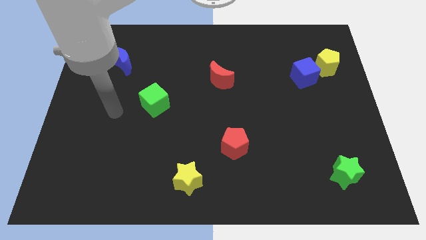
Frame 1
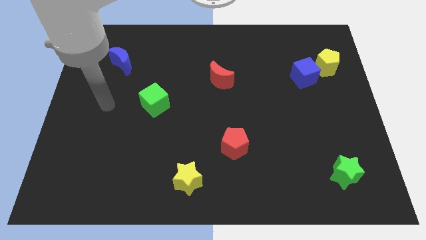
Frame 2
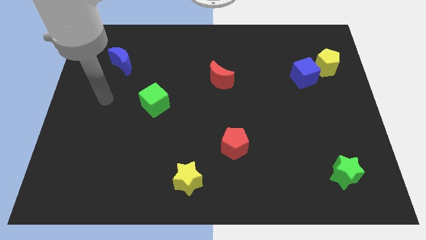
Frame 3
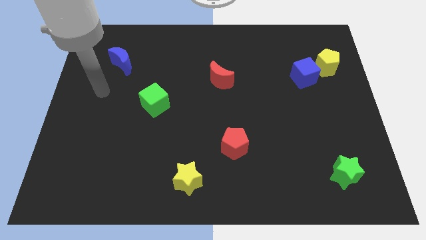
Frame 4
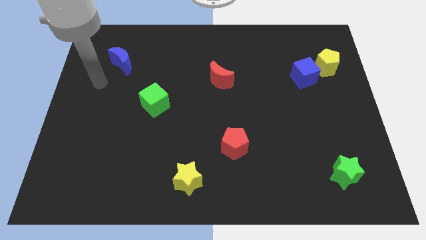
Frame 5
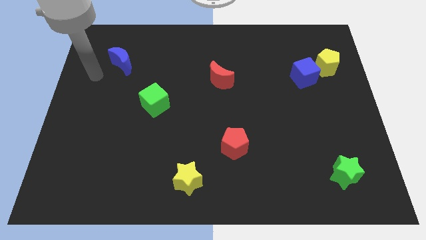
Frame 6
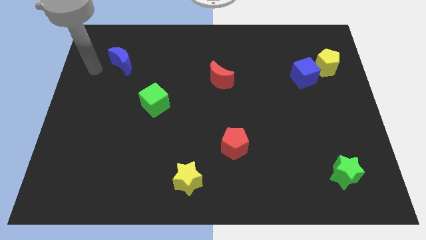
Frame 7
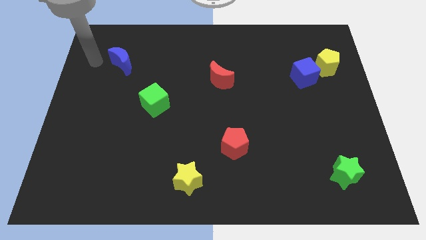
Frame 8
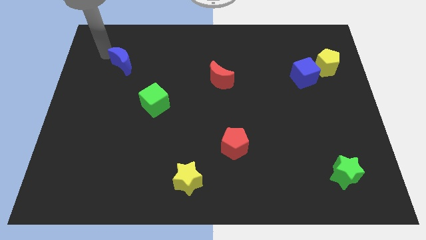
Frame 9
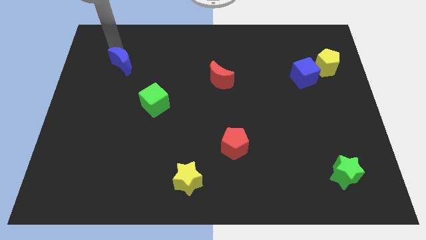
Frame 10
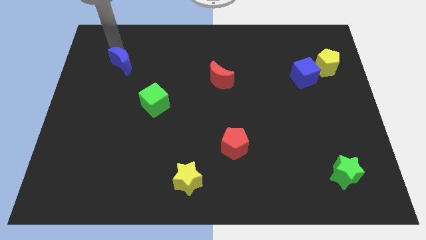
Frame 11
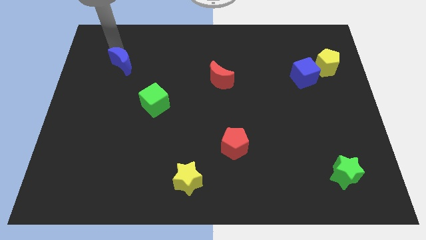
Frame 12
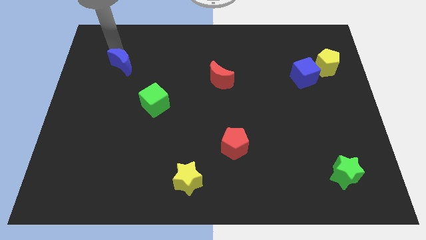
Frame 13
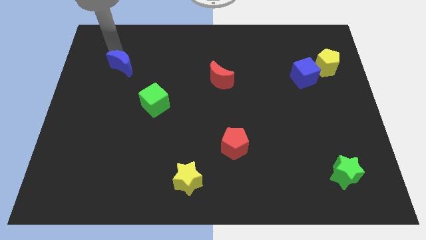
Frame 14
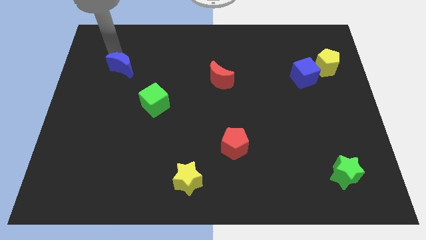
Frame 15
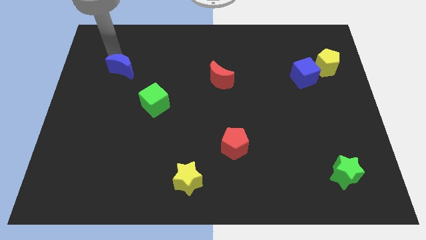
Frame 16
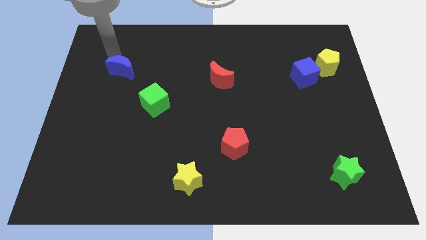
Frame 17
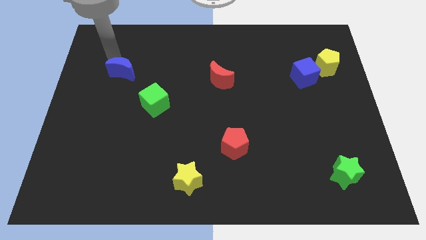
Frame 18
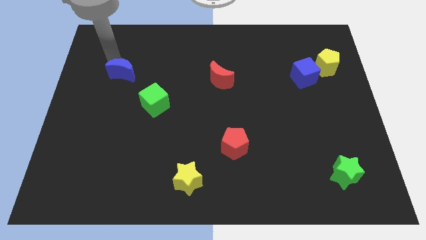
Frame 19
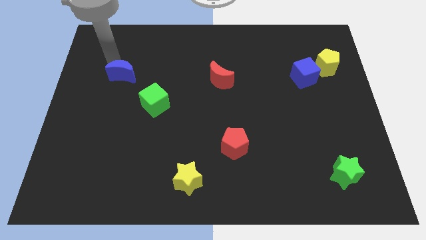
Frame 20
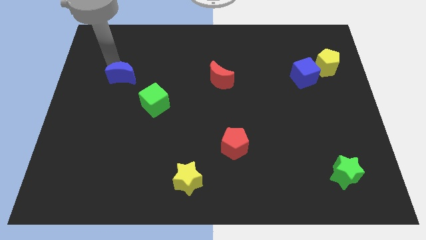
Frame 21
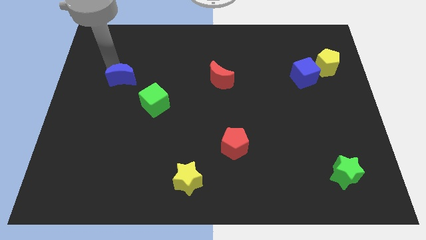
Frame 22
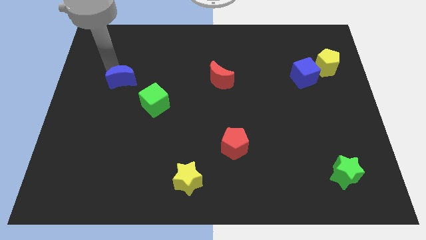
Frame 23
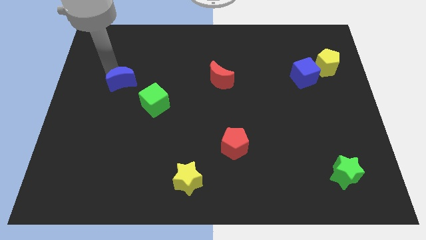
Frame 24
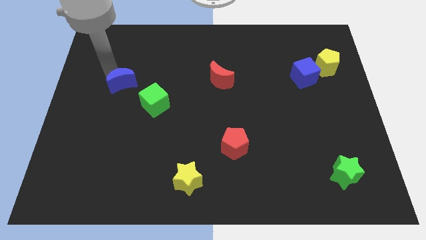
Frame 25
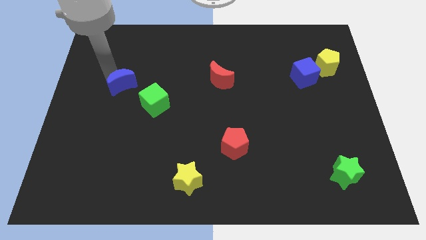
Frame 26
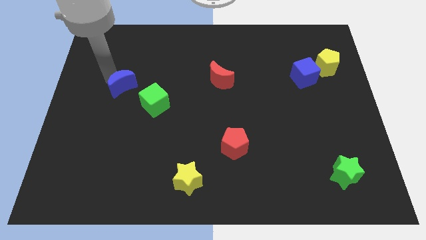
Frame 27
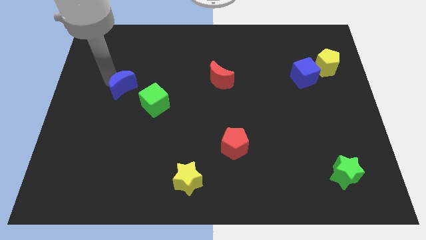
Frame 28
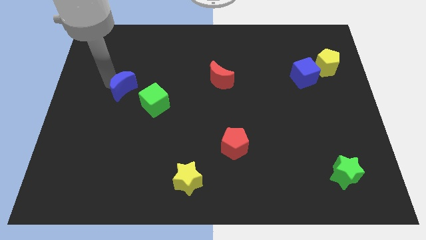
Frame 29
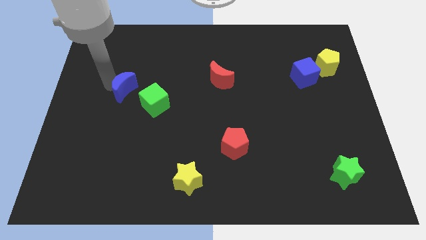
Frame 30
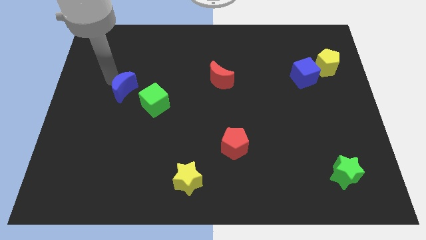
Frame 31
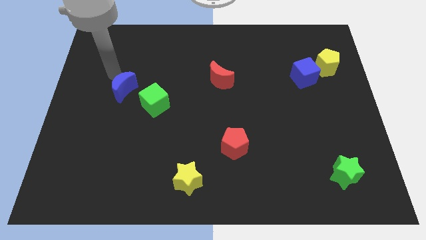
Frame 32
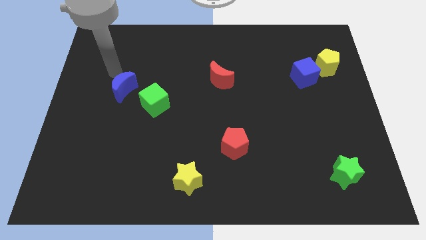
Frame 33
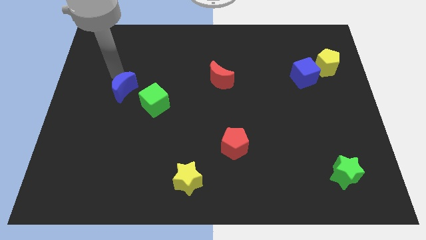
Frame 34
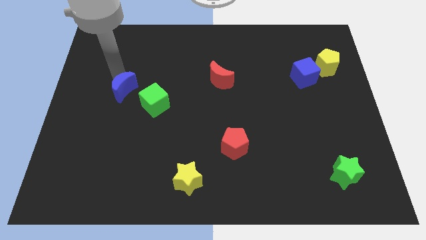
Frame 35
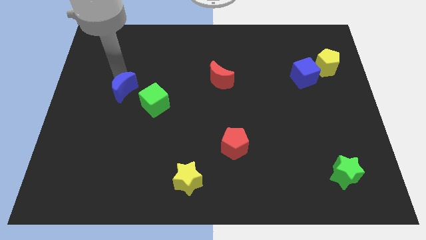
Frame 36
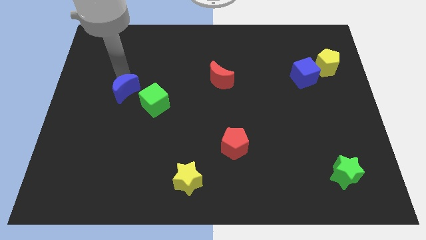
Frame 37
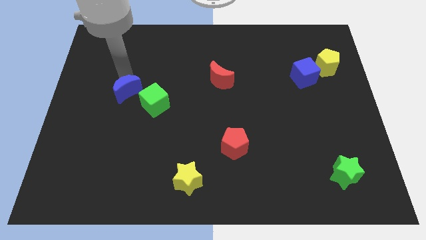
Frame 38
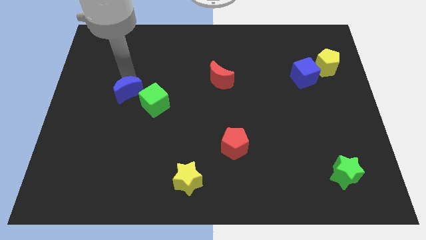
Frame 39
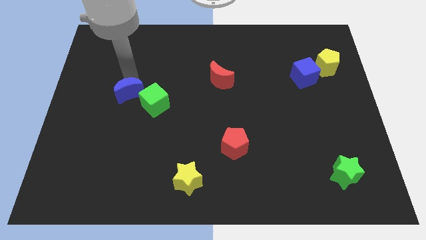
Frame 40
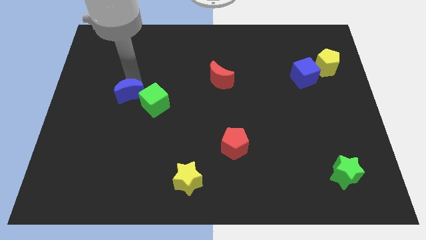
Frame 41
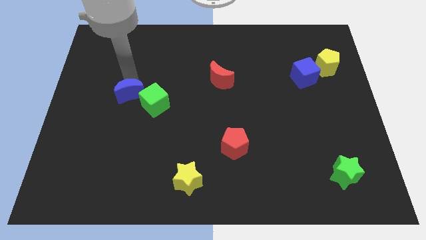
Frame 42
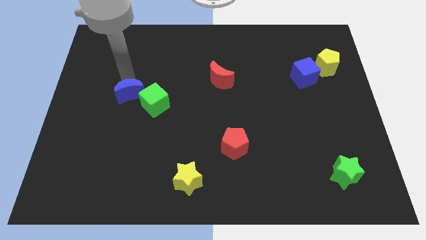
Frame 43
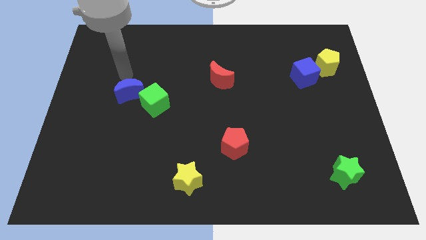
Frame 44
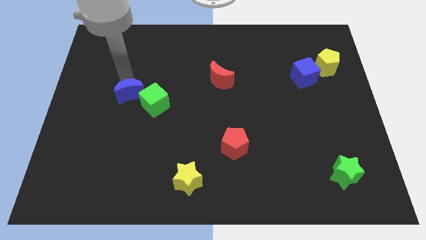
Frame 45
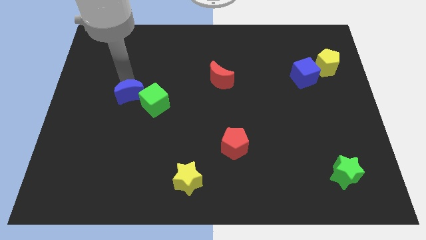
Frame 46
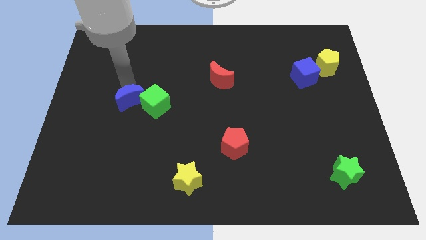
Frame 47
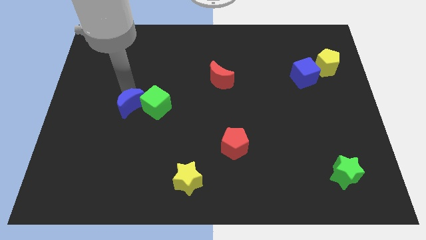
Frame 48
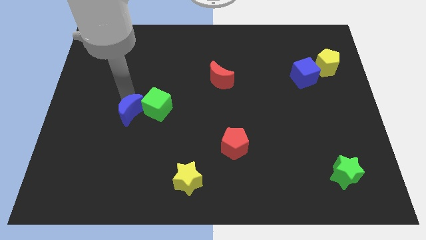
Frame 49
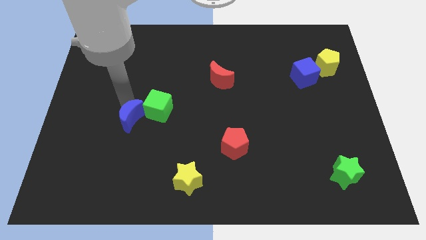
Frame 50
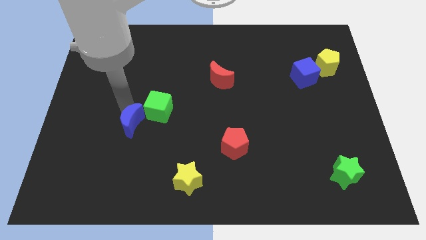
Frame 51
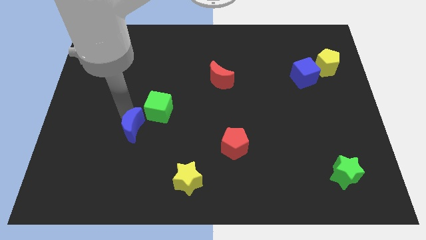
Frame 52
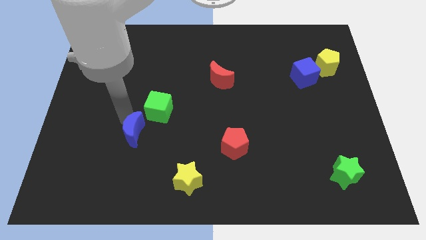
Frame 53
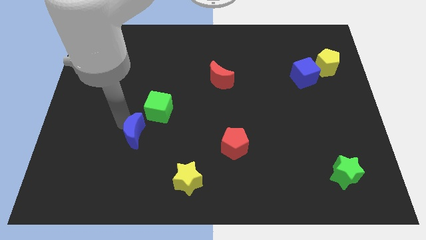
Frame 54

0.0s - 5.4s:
slide the blue moon to the bottom side of the green cube

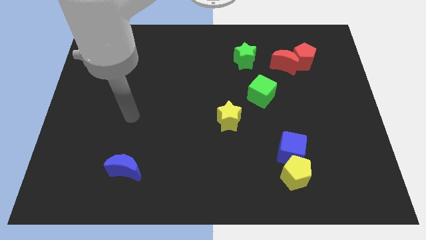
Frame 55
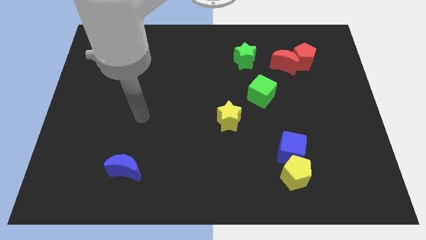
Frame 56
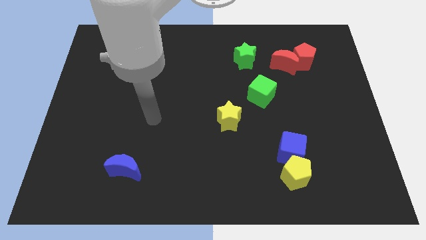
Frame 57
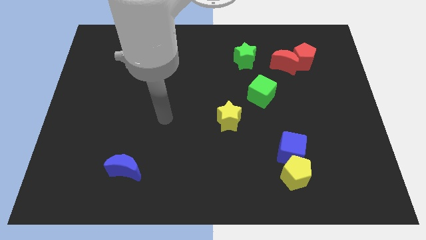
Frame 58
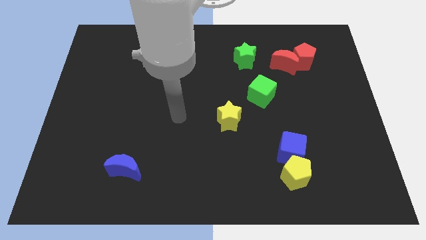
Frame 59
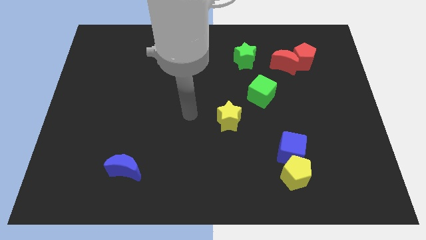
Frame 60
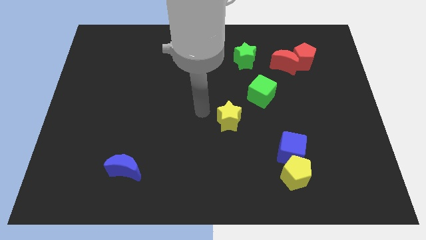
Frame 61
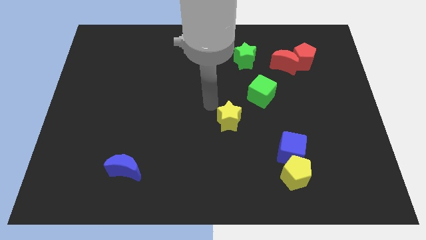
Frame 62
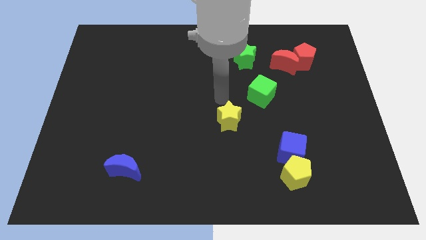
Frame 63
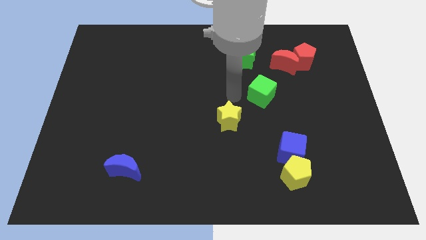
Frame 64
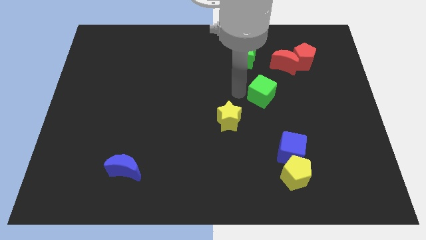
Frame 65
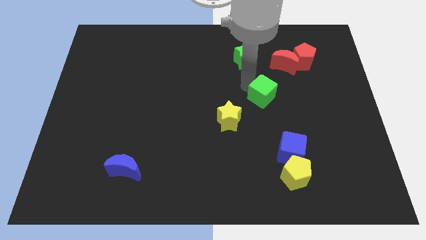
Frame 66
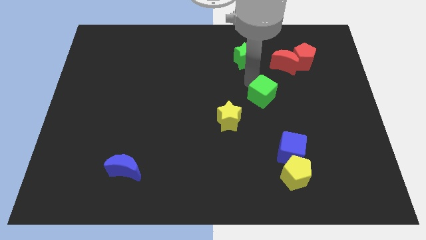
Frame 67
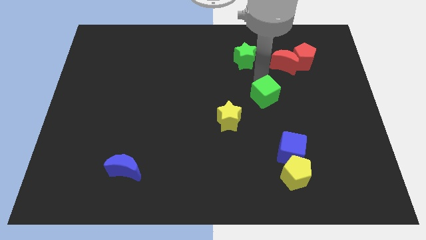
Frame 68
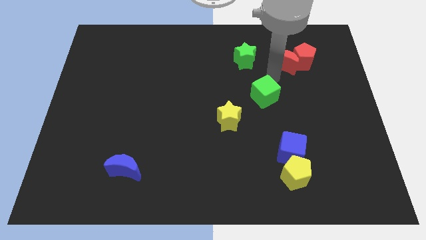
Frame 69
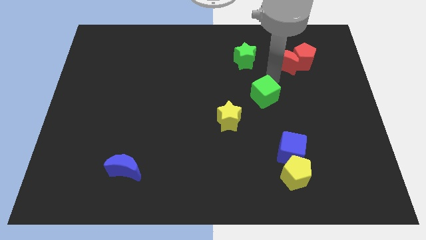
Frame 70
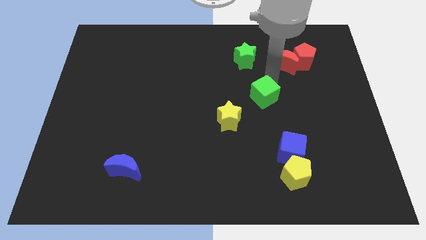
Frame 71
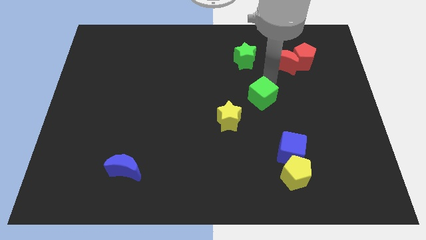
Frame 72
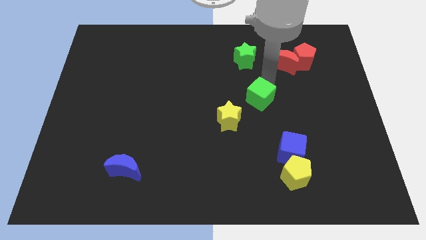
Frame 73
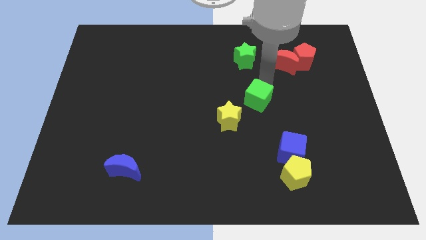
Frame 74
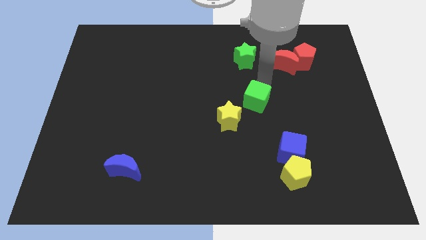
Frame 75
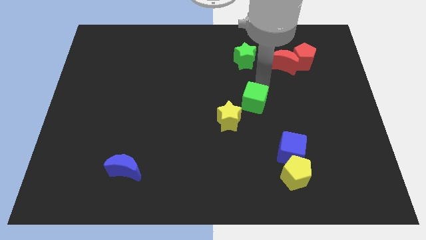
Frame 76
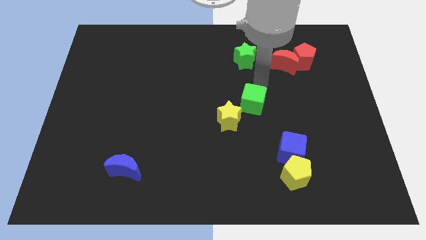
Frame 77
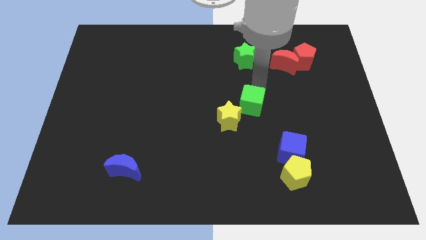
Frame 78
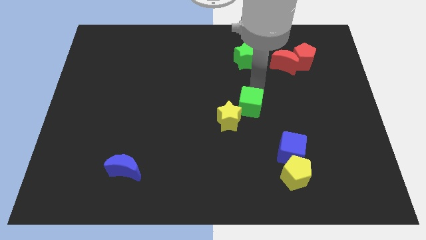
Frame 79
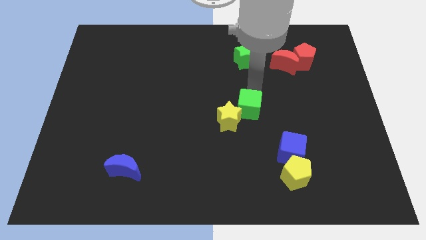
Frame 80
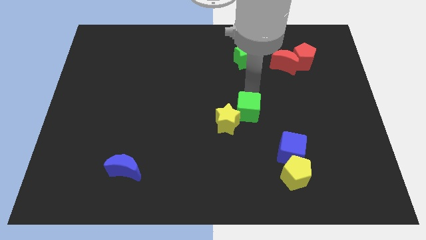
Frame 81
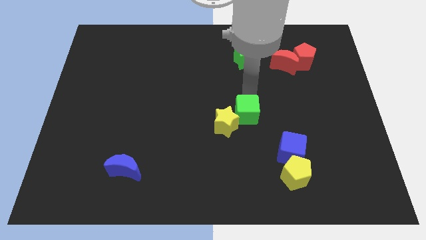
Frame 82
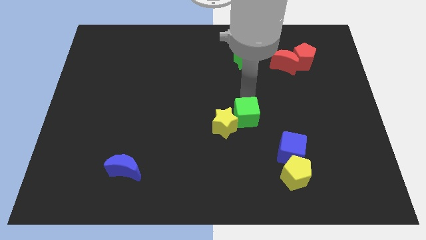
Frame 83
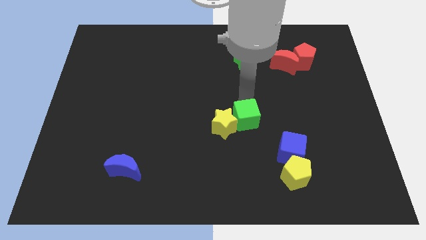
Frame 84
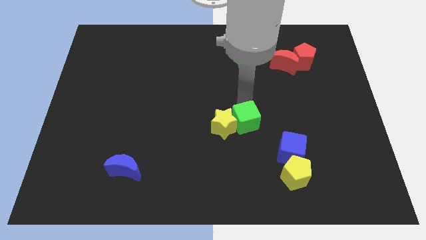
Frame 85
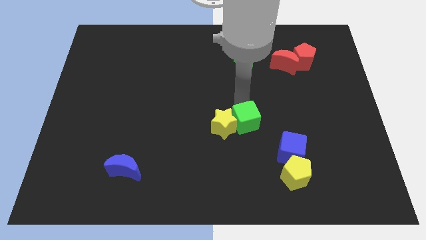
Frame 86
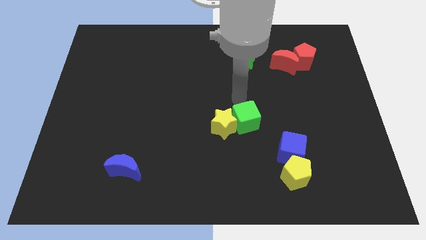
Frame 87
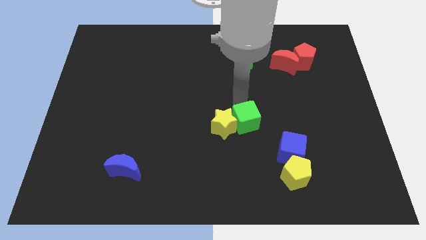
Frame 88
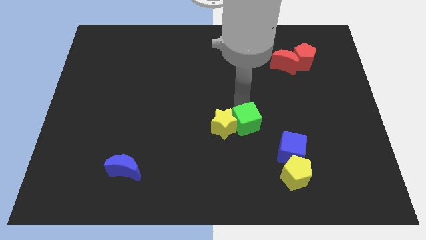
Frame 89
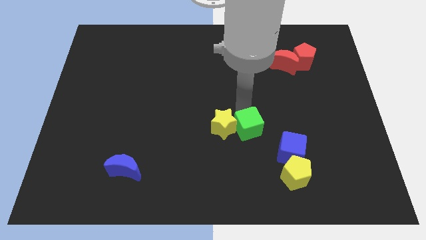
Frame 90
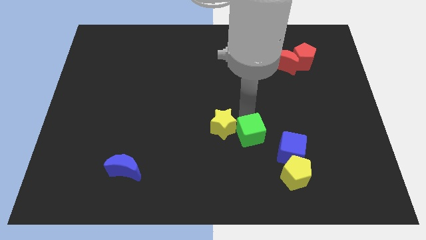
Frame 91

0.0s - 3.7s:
move the green cube to the left of the blue cube
